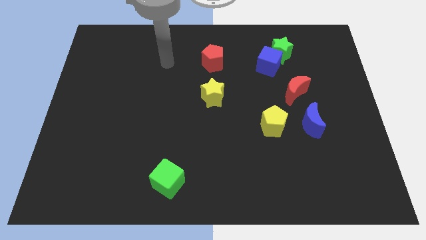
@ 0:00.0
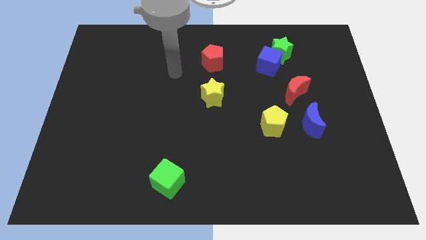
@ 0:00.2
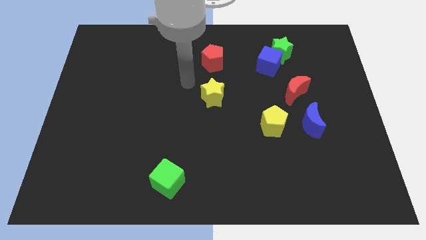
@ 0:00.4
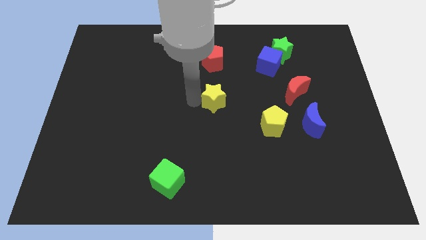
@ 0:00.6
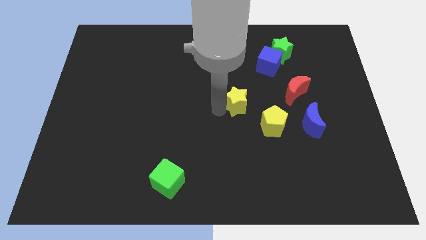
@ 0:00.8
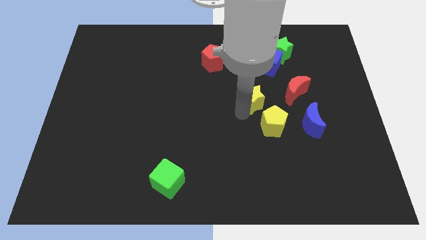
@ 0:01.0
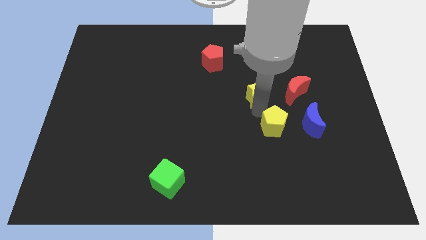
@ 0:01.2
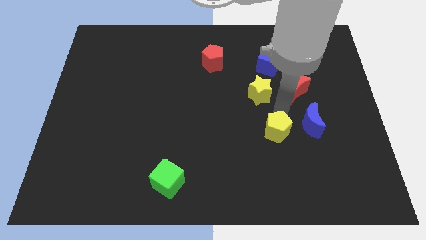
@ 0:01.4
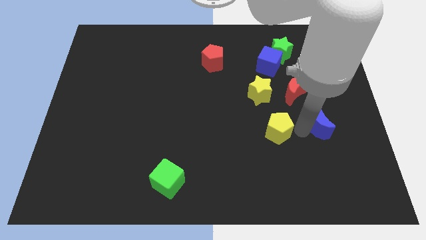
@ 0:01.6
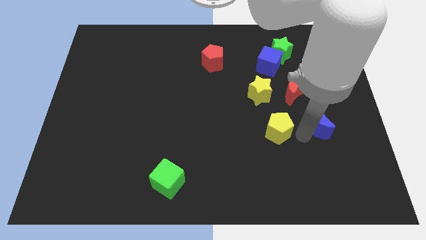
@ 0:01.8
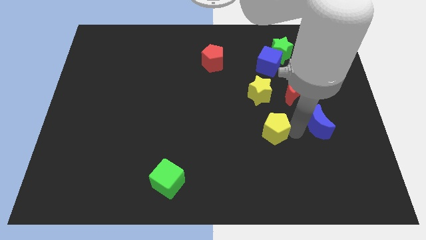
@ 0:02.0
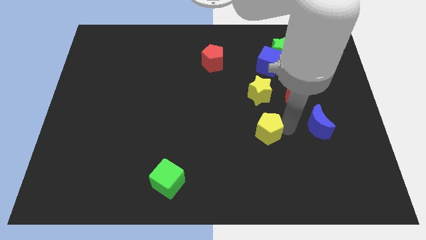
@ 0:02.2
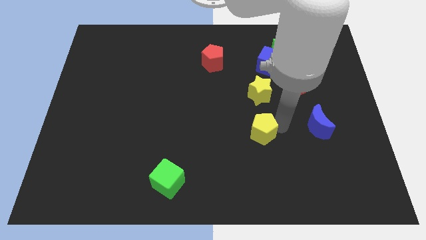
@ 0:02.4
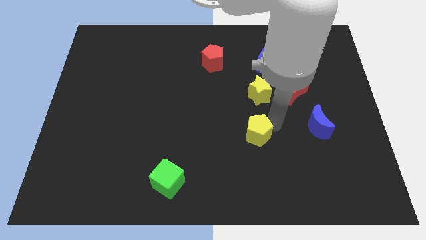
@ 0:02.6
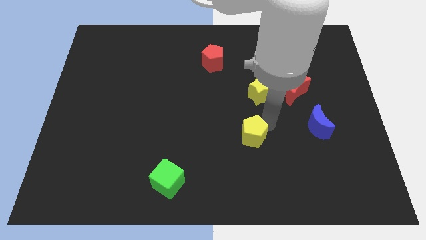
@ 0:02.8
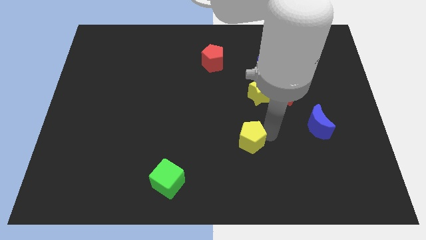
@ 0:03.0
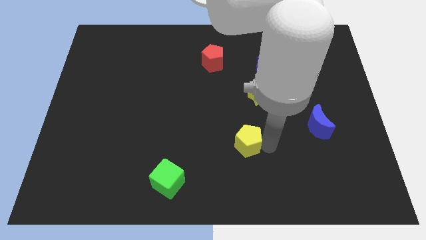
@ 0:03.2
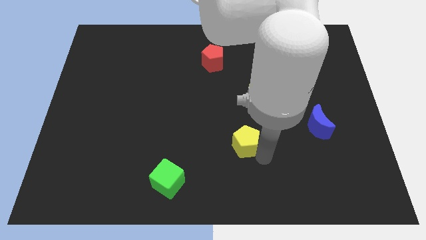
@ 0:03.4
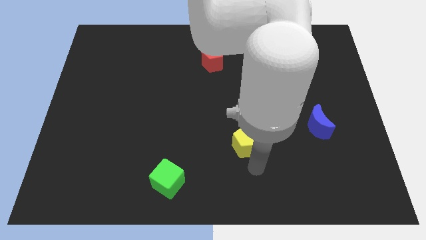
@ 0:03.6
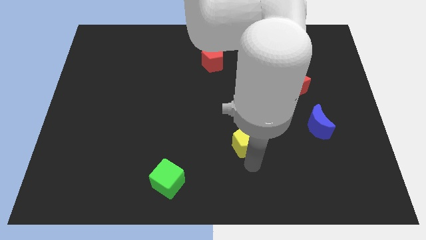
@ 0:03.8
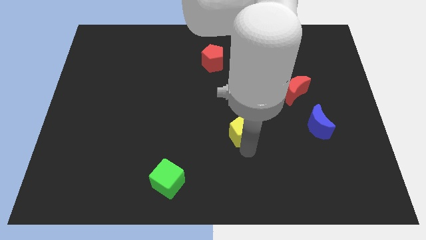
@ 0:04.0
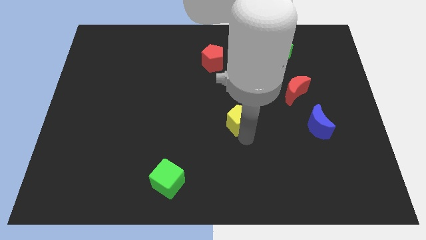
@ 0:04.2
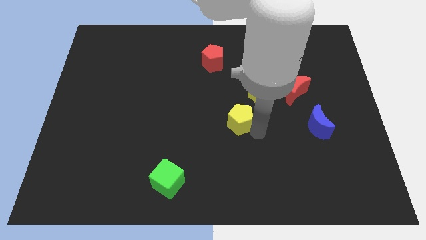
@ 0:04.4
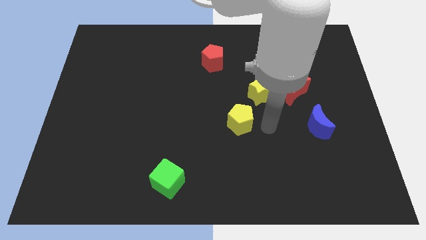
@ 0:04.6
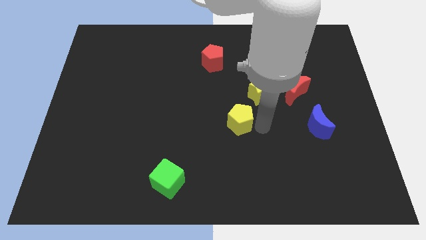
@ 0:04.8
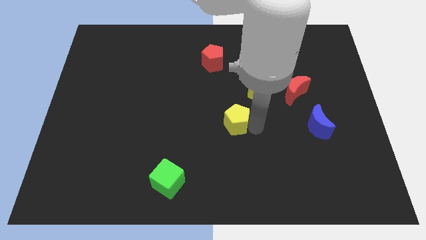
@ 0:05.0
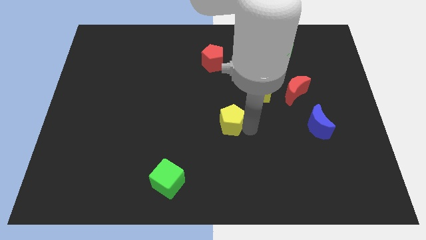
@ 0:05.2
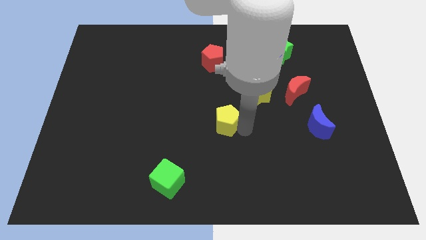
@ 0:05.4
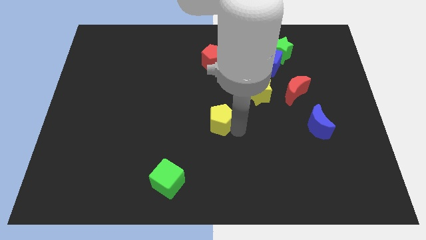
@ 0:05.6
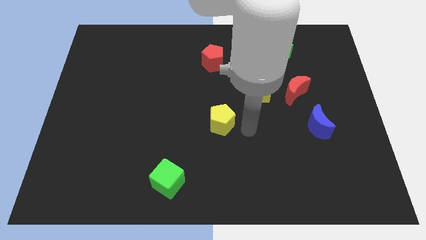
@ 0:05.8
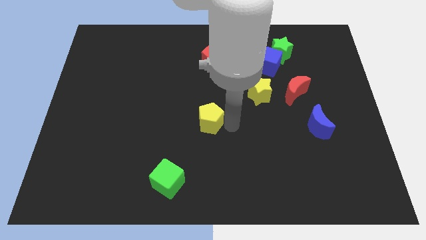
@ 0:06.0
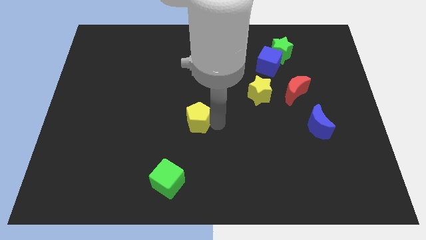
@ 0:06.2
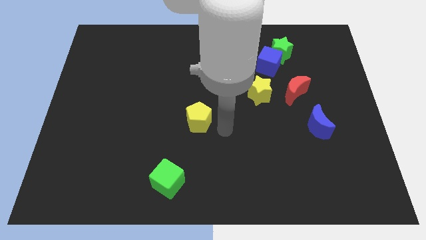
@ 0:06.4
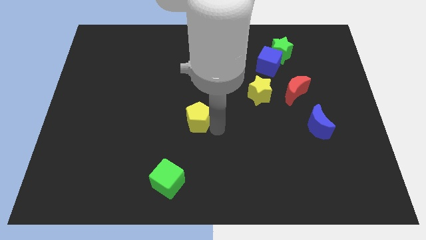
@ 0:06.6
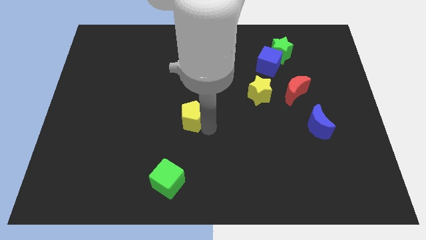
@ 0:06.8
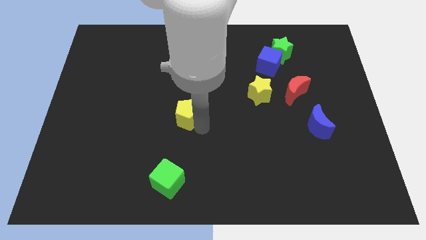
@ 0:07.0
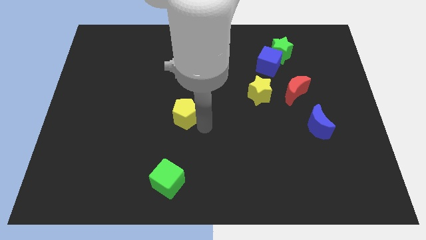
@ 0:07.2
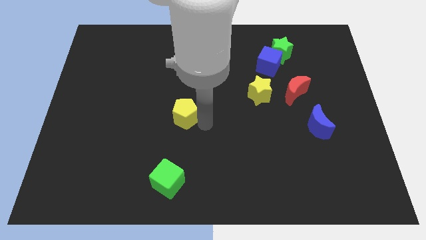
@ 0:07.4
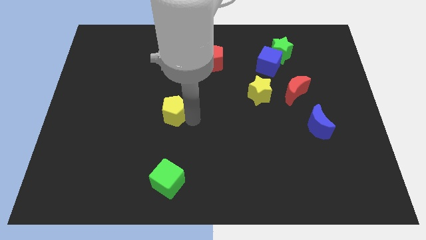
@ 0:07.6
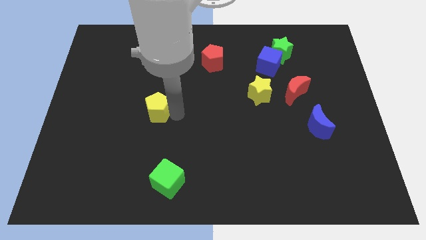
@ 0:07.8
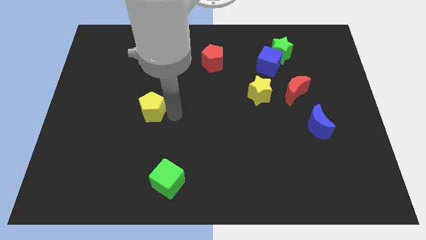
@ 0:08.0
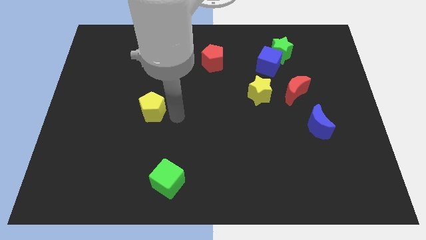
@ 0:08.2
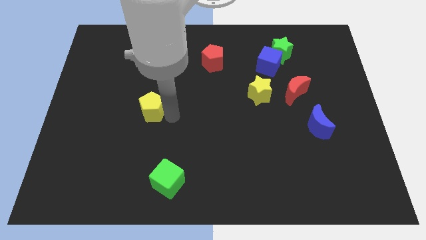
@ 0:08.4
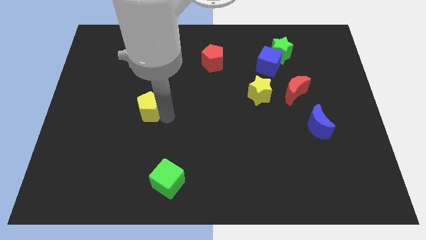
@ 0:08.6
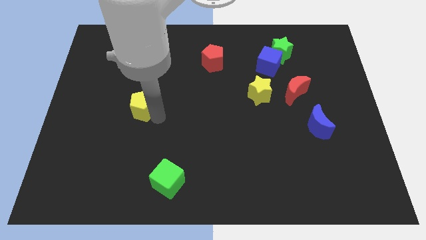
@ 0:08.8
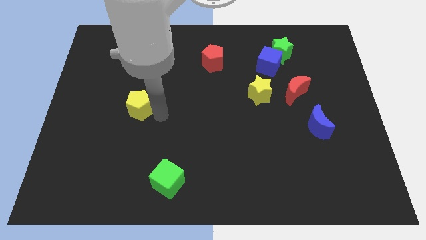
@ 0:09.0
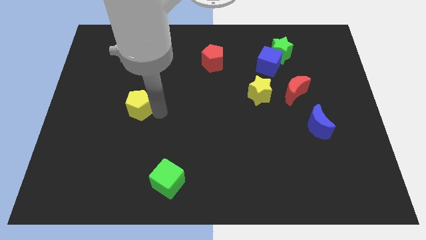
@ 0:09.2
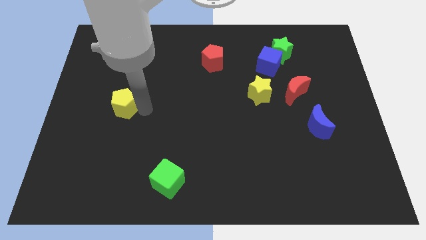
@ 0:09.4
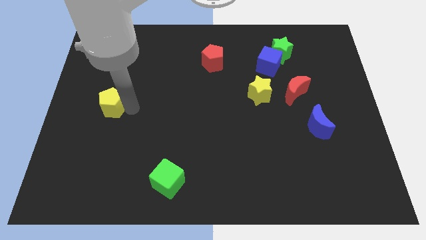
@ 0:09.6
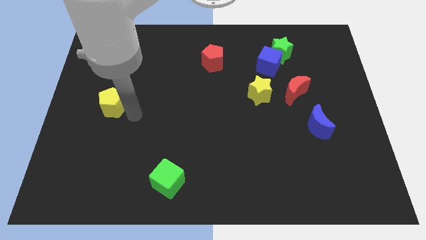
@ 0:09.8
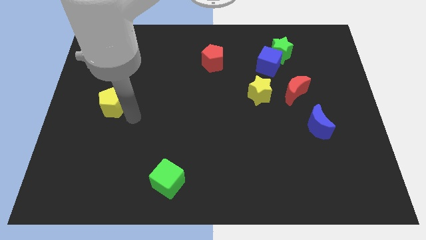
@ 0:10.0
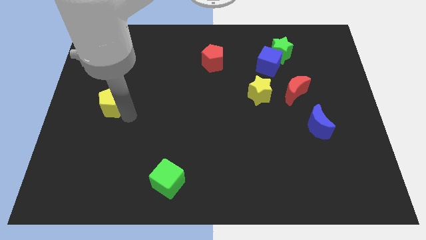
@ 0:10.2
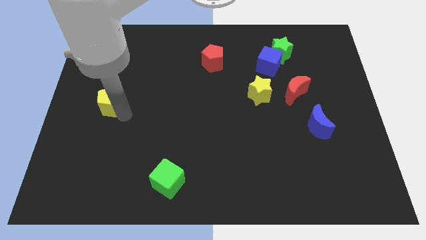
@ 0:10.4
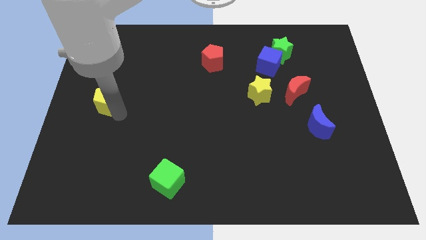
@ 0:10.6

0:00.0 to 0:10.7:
push the yellow pentagon to the left side
